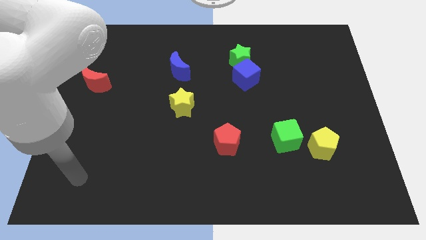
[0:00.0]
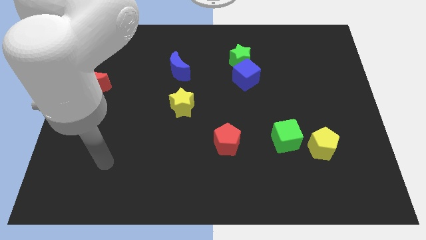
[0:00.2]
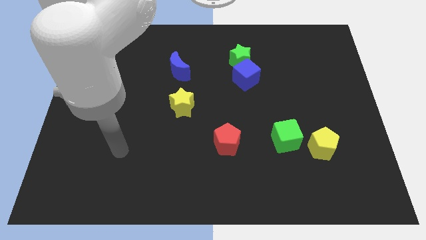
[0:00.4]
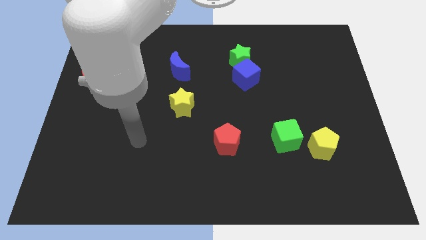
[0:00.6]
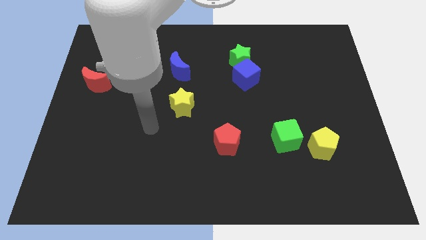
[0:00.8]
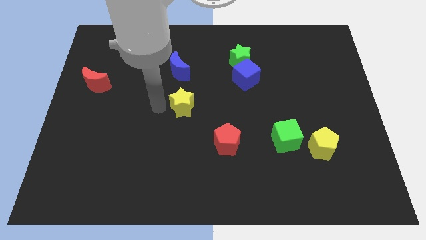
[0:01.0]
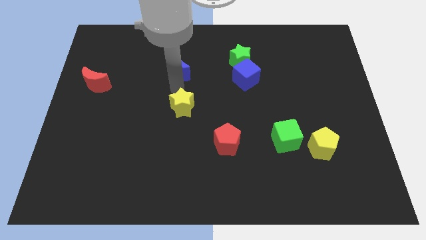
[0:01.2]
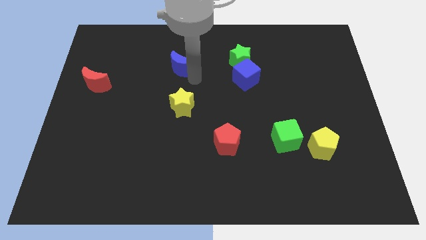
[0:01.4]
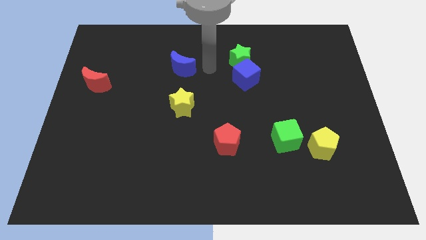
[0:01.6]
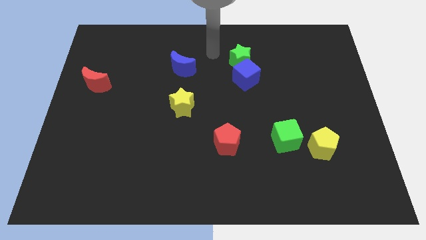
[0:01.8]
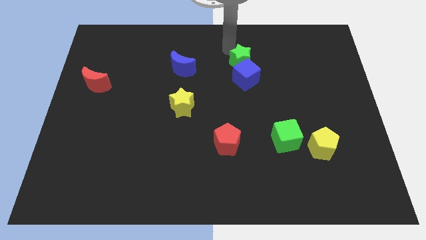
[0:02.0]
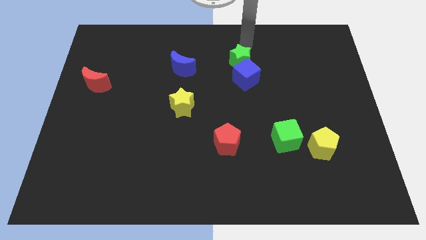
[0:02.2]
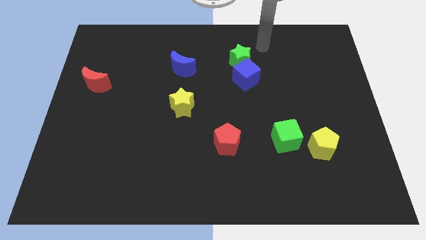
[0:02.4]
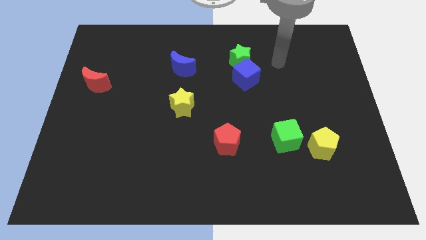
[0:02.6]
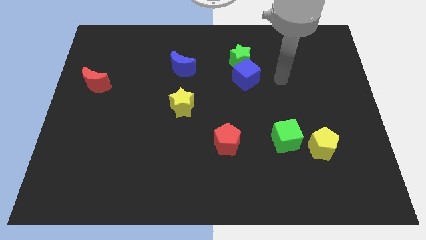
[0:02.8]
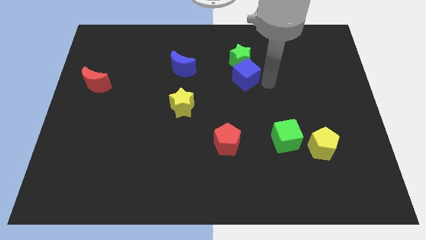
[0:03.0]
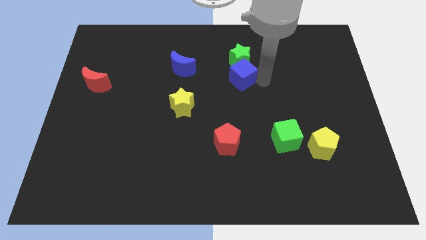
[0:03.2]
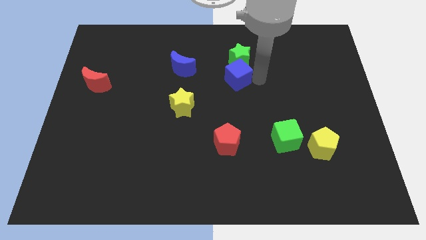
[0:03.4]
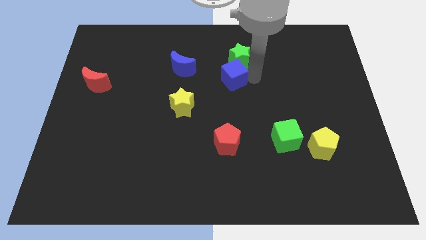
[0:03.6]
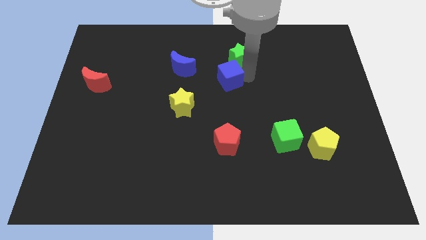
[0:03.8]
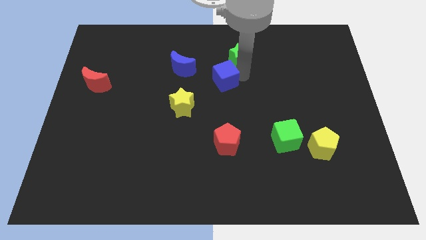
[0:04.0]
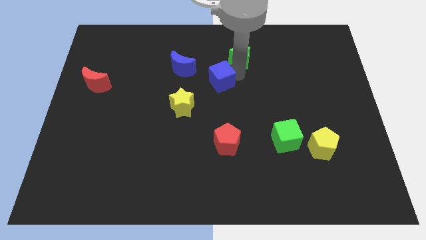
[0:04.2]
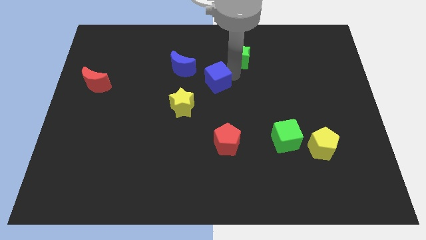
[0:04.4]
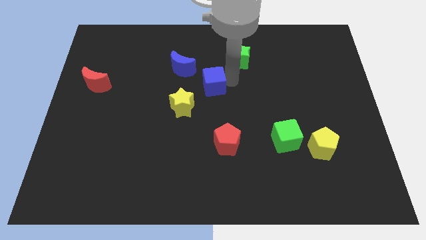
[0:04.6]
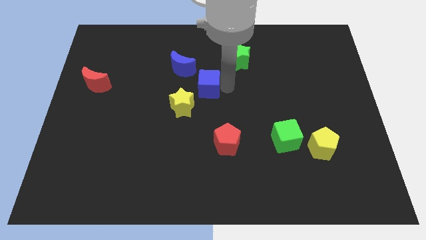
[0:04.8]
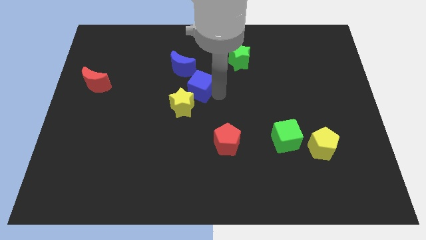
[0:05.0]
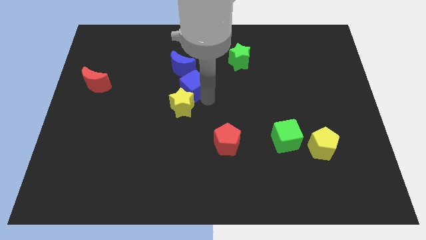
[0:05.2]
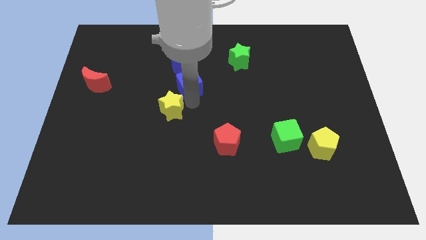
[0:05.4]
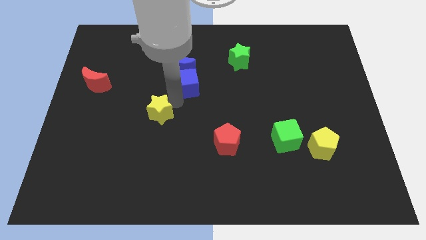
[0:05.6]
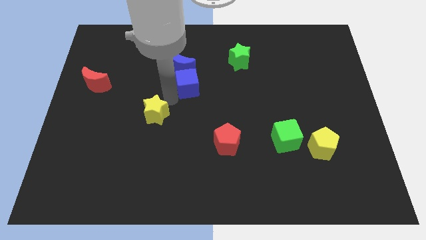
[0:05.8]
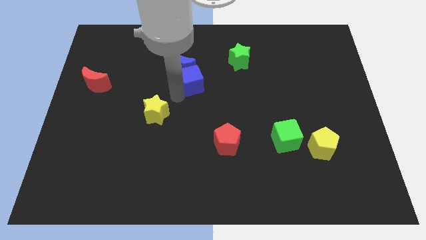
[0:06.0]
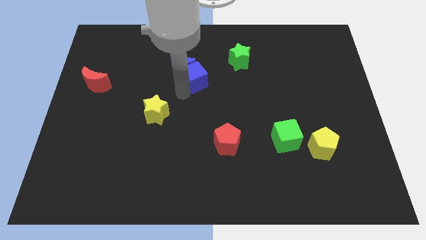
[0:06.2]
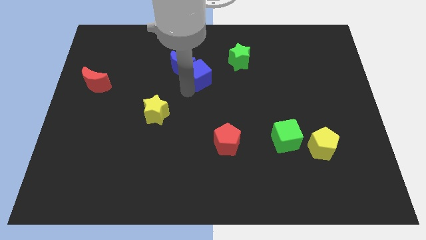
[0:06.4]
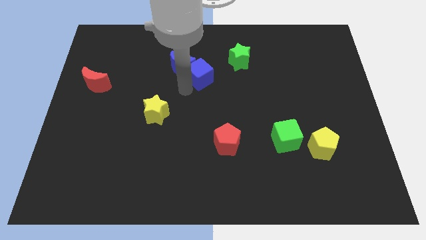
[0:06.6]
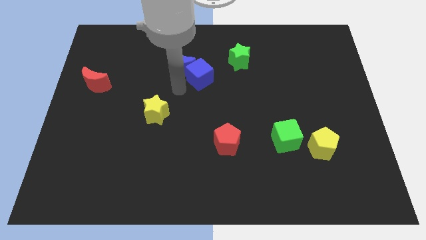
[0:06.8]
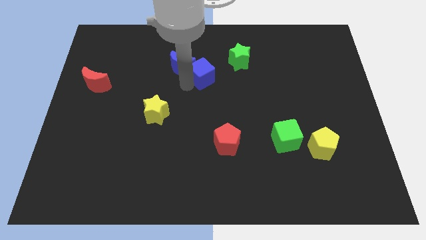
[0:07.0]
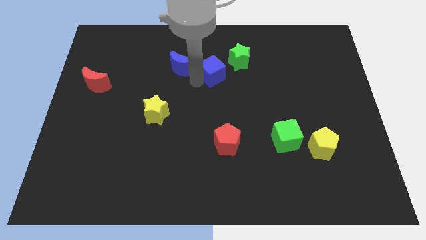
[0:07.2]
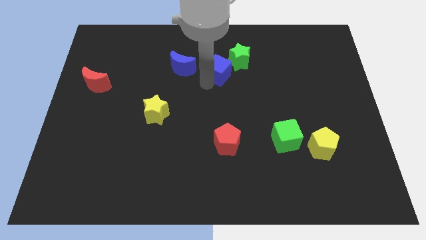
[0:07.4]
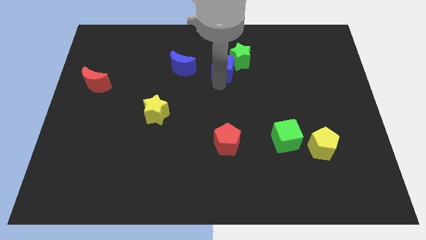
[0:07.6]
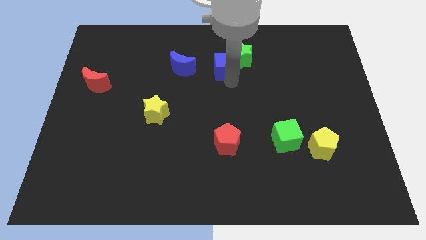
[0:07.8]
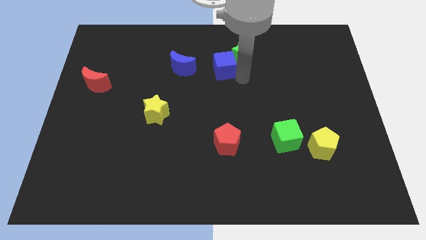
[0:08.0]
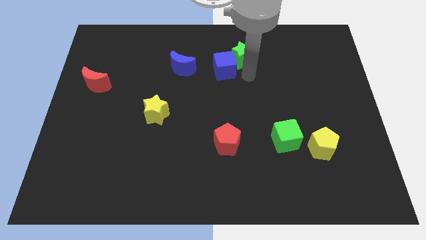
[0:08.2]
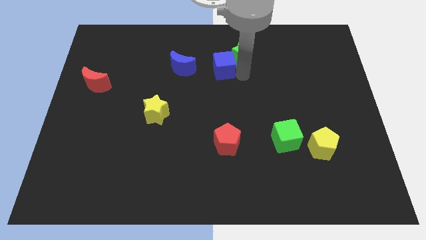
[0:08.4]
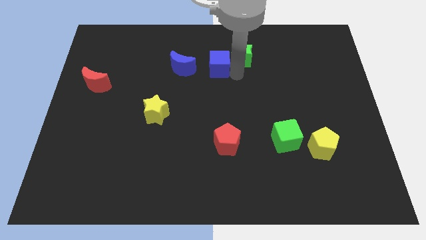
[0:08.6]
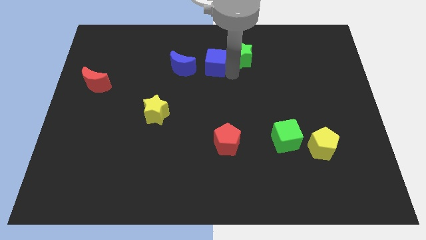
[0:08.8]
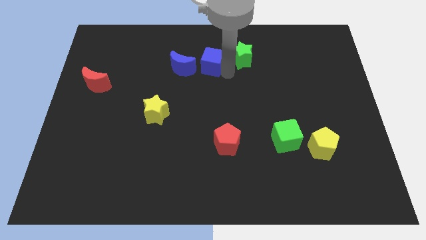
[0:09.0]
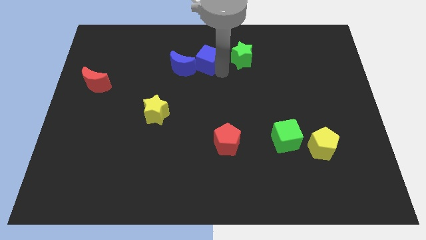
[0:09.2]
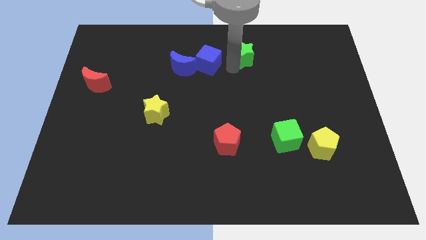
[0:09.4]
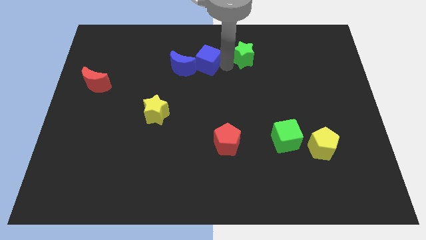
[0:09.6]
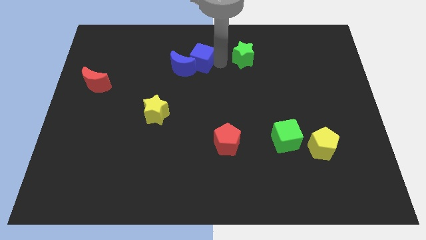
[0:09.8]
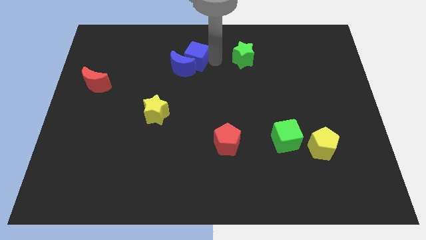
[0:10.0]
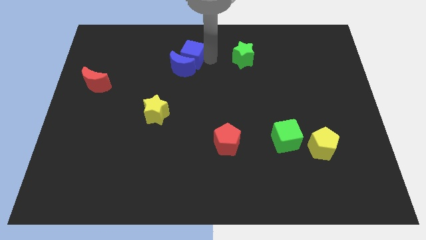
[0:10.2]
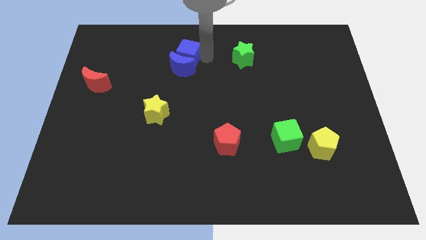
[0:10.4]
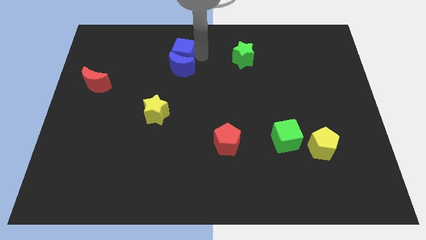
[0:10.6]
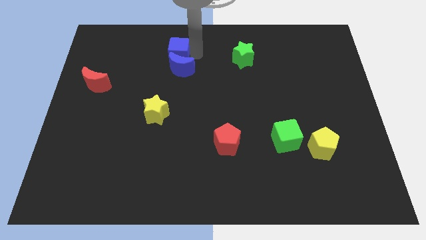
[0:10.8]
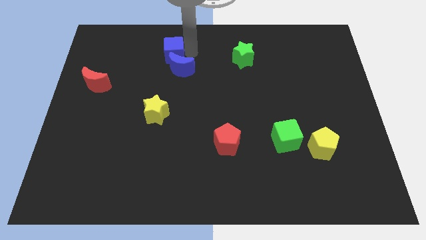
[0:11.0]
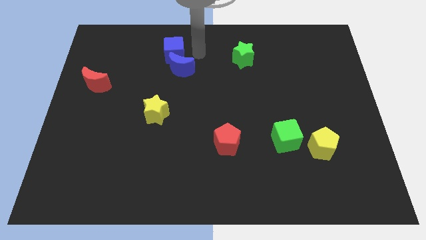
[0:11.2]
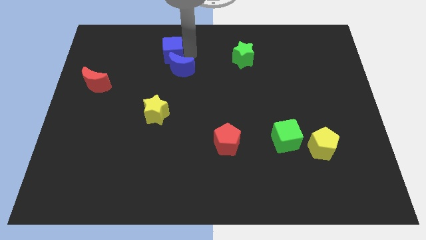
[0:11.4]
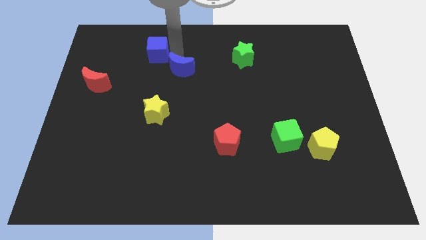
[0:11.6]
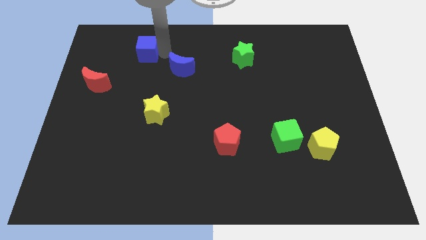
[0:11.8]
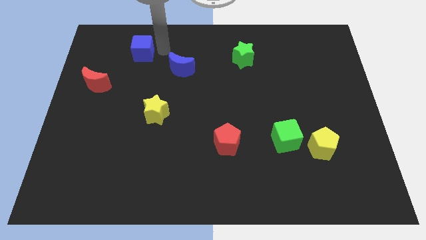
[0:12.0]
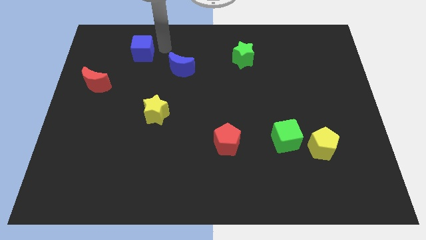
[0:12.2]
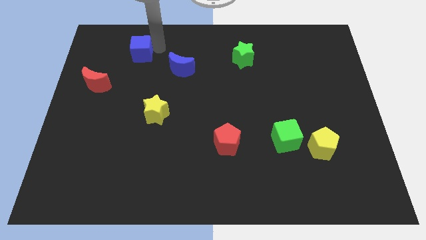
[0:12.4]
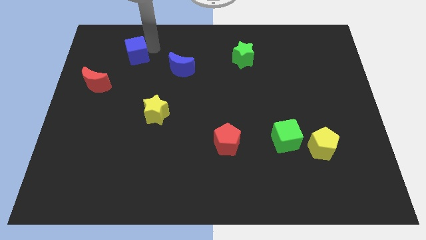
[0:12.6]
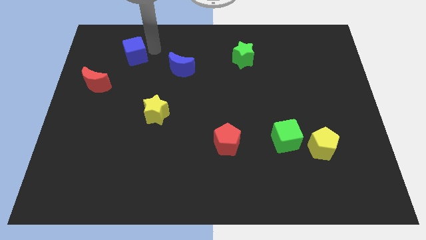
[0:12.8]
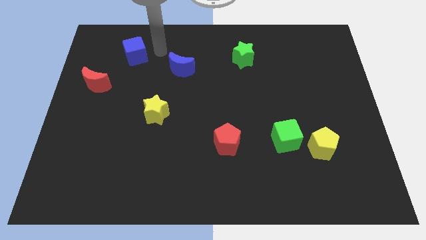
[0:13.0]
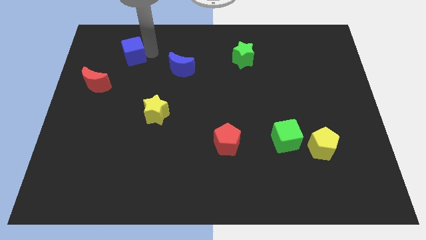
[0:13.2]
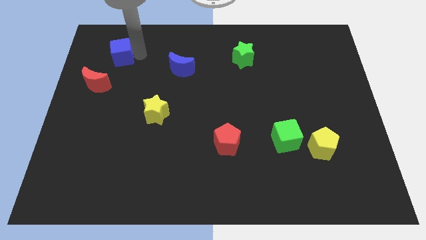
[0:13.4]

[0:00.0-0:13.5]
push the blue cube to the top of the red moon

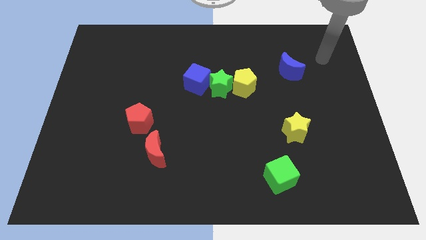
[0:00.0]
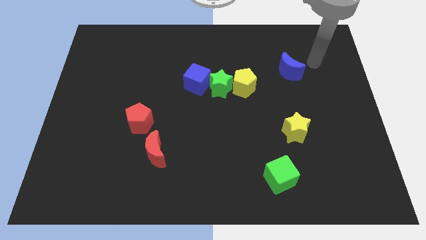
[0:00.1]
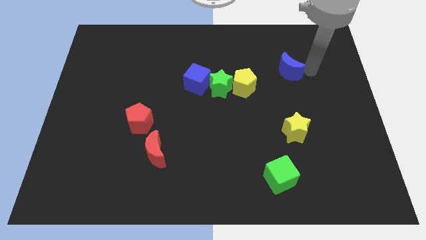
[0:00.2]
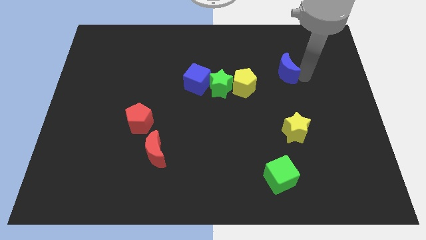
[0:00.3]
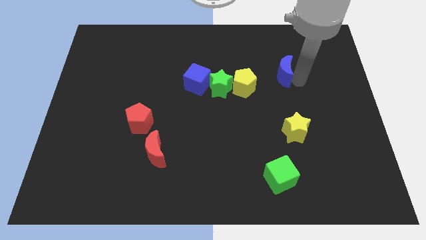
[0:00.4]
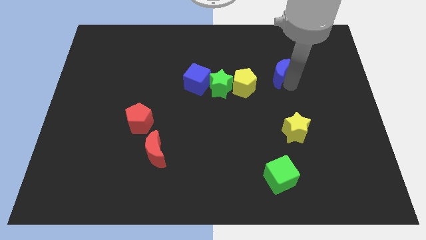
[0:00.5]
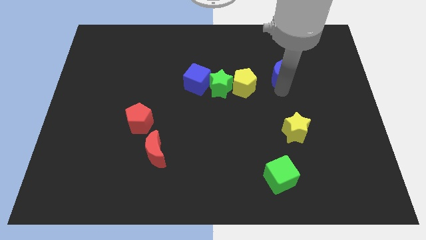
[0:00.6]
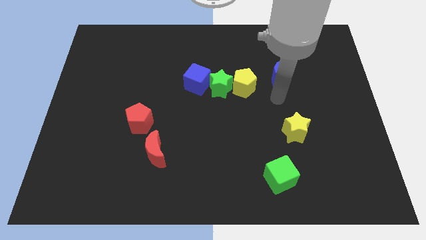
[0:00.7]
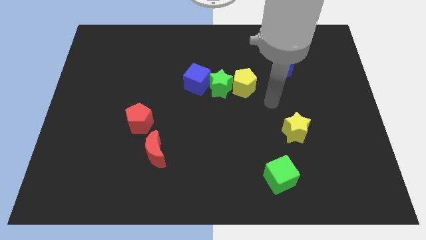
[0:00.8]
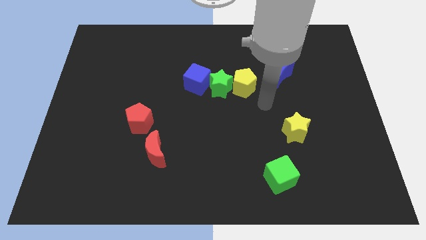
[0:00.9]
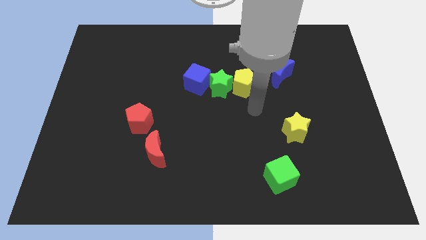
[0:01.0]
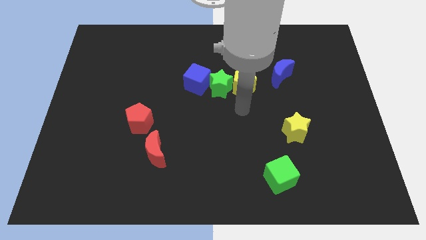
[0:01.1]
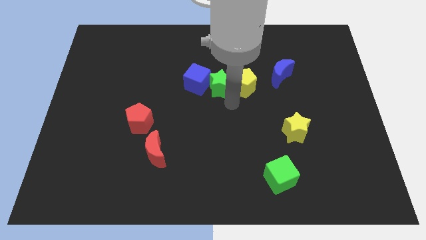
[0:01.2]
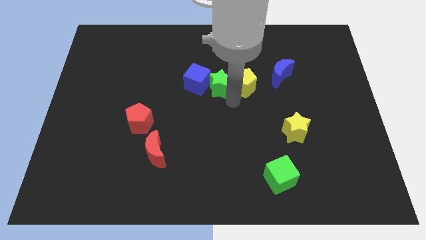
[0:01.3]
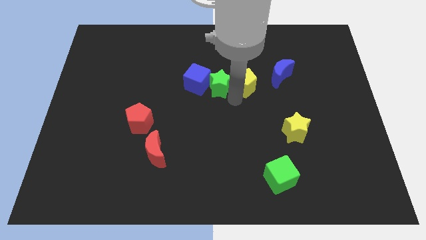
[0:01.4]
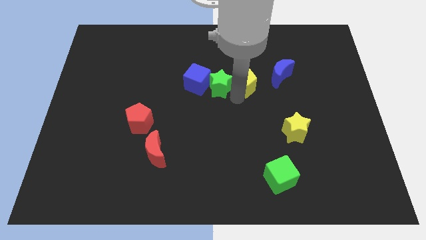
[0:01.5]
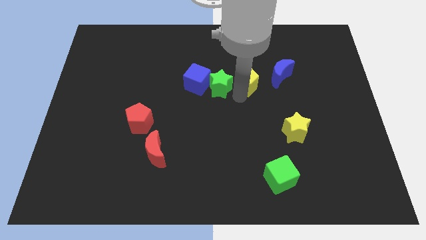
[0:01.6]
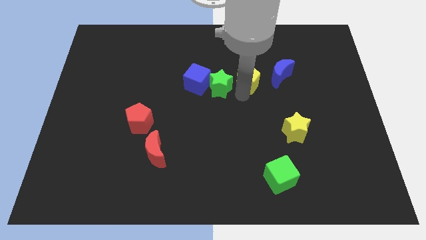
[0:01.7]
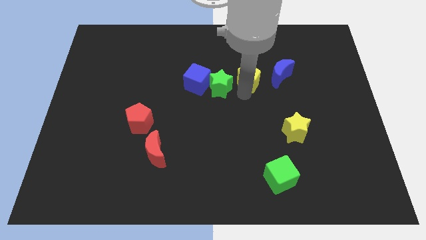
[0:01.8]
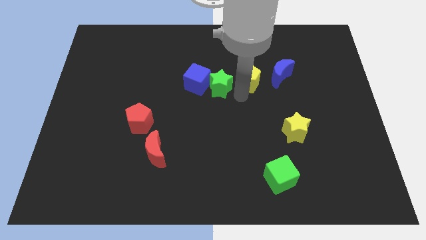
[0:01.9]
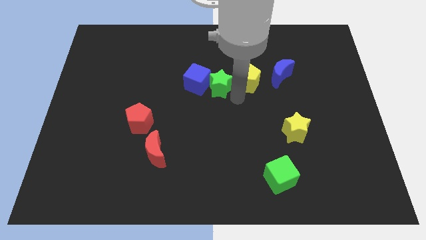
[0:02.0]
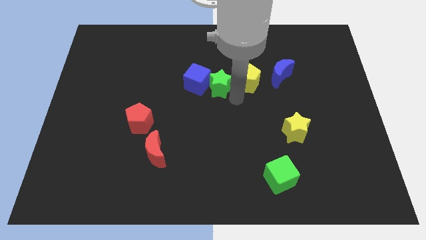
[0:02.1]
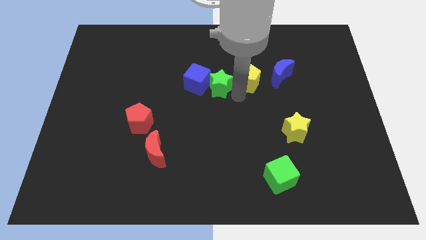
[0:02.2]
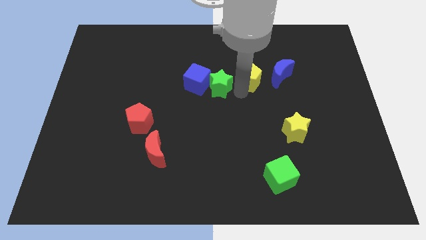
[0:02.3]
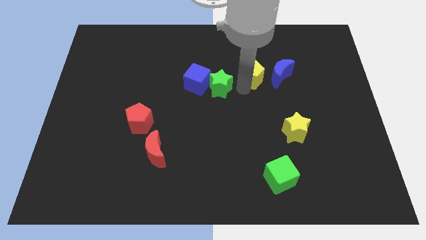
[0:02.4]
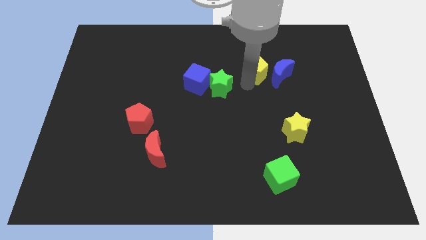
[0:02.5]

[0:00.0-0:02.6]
push the yellow pentagon to the top left of the blue moon
